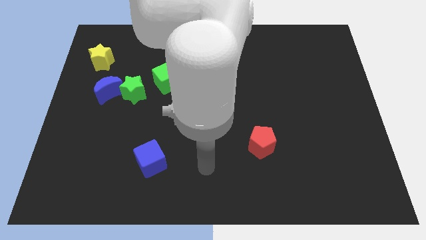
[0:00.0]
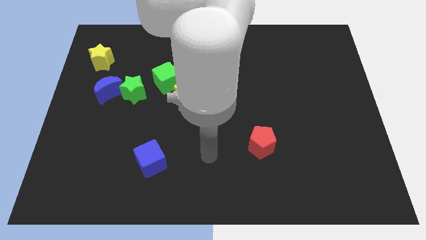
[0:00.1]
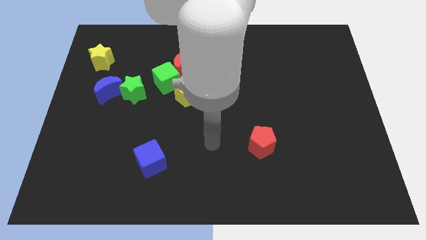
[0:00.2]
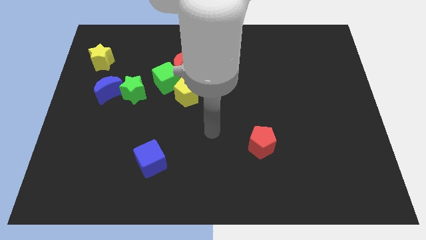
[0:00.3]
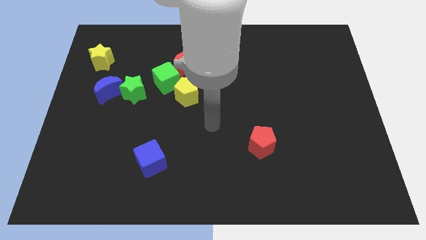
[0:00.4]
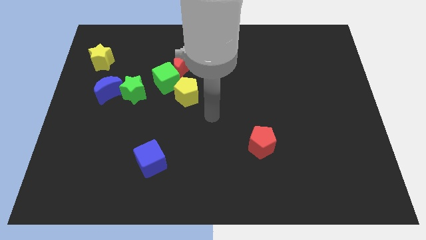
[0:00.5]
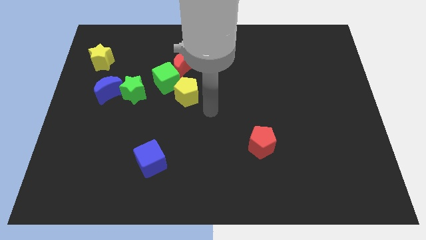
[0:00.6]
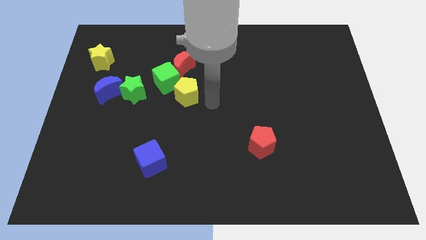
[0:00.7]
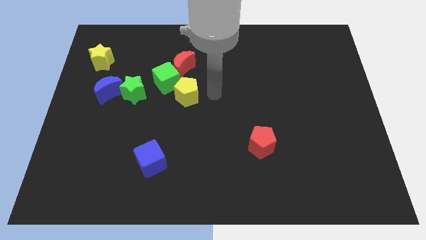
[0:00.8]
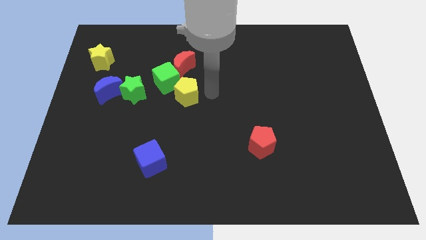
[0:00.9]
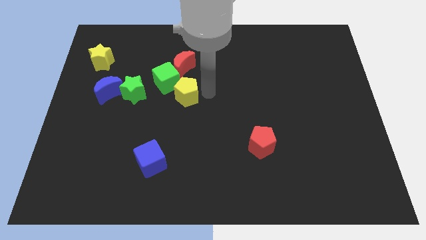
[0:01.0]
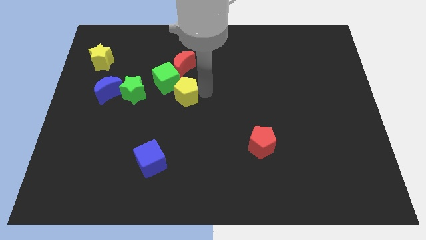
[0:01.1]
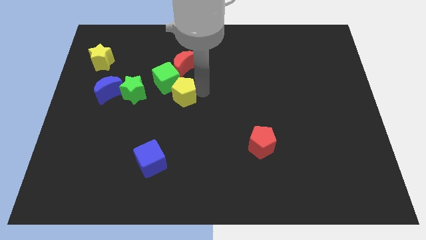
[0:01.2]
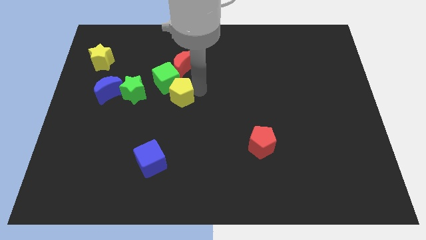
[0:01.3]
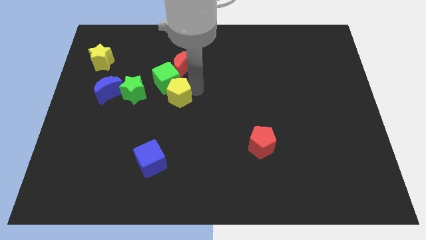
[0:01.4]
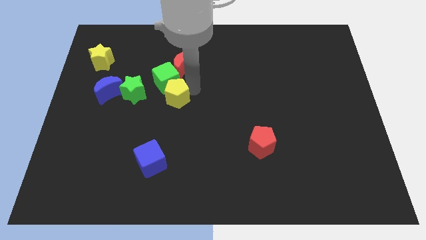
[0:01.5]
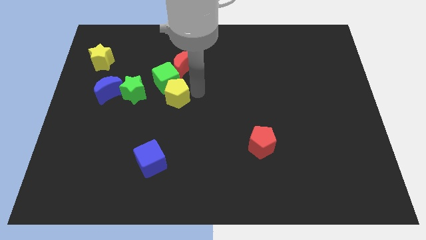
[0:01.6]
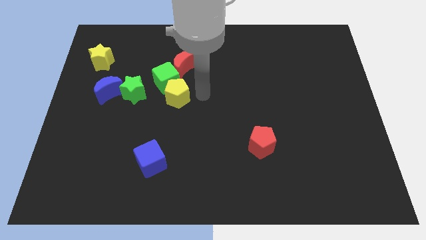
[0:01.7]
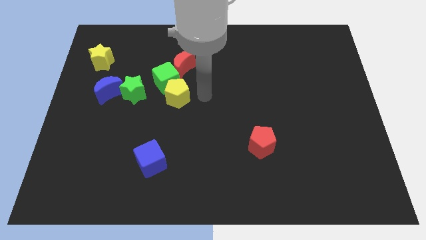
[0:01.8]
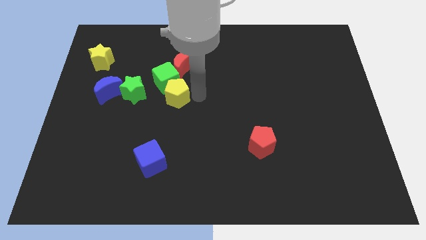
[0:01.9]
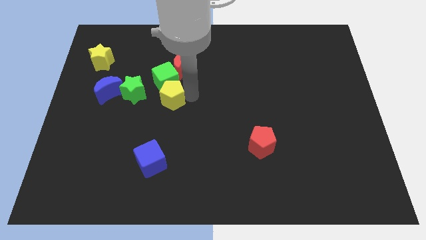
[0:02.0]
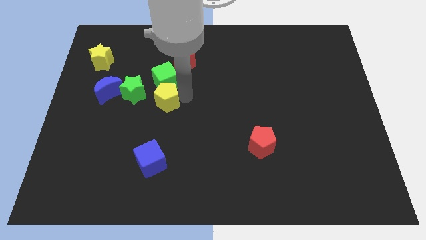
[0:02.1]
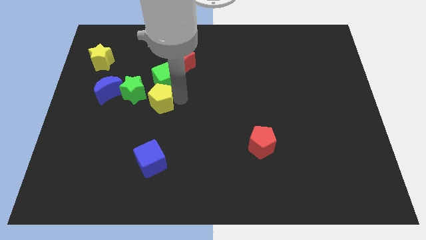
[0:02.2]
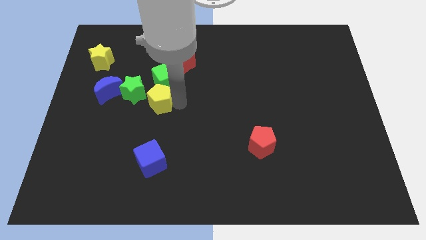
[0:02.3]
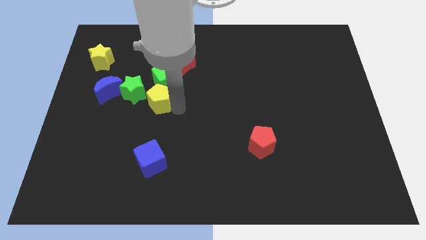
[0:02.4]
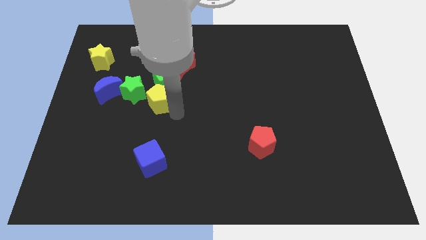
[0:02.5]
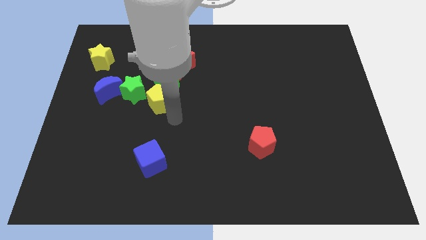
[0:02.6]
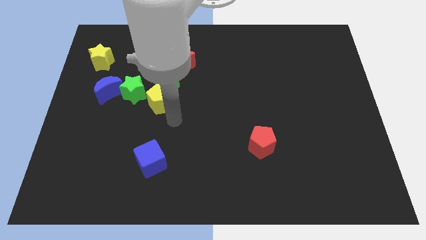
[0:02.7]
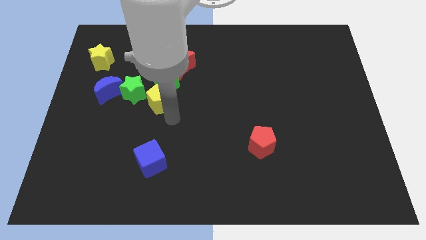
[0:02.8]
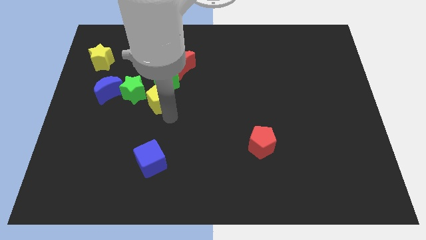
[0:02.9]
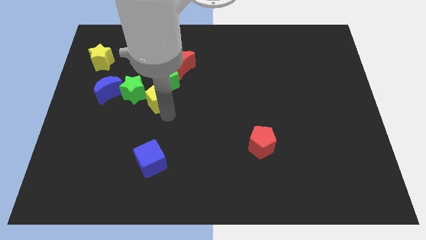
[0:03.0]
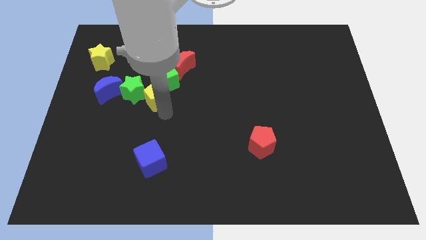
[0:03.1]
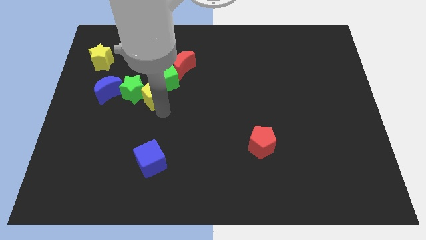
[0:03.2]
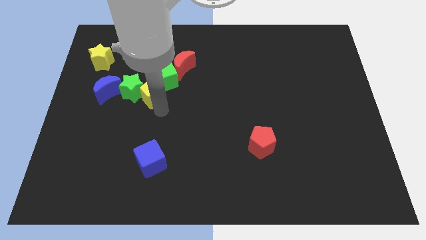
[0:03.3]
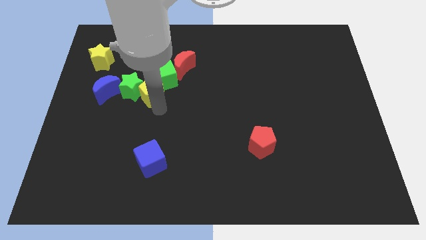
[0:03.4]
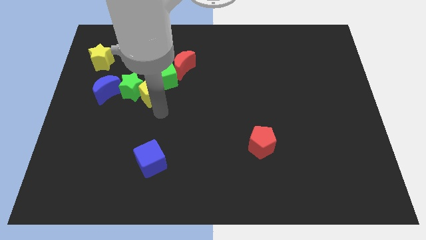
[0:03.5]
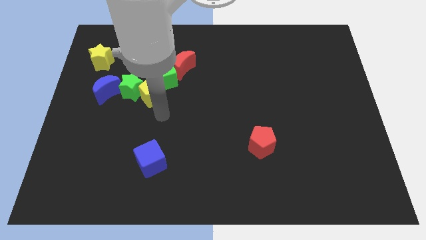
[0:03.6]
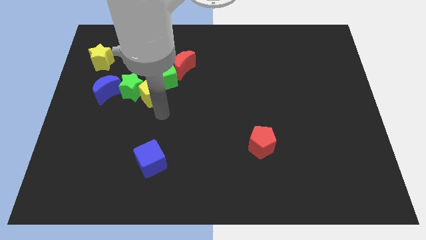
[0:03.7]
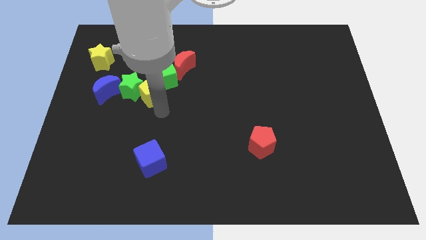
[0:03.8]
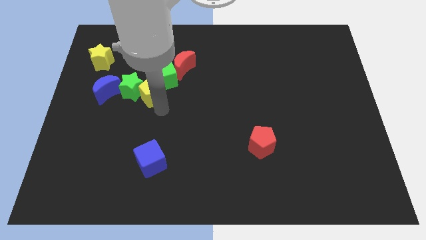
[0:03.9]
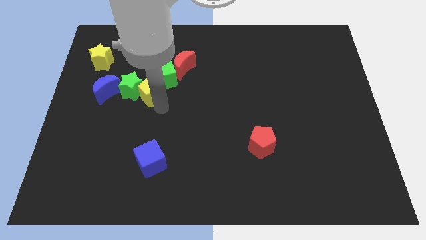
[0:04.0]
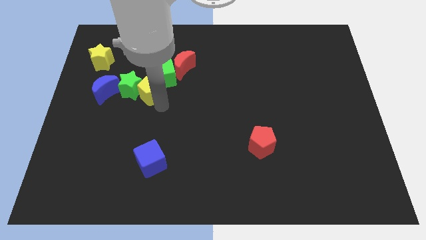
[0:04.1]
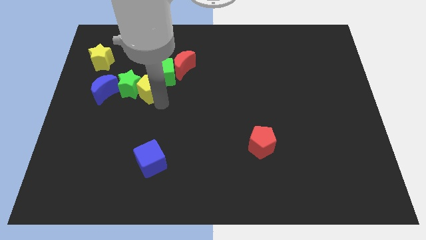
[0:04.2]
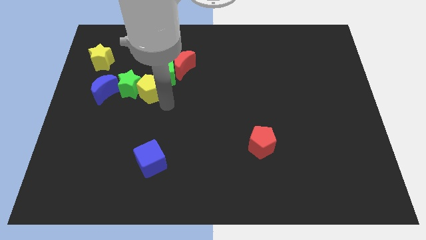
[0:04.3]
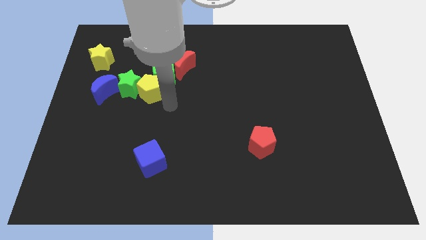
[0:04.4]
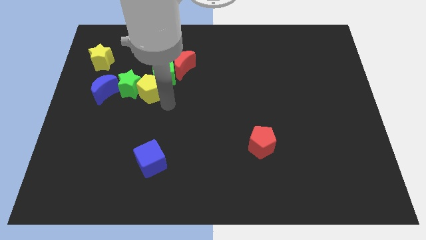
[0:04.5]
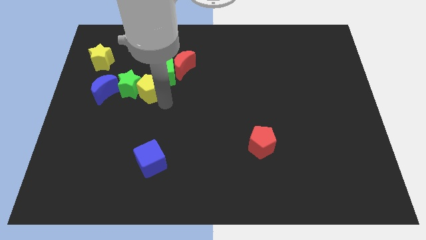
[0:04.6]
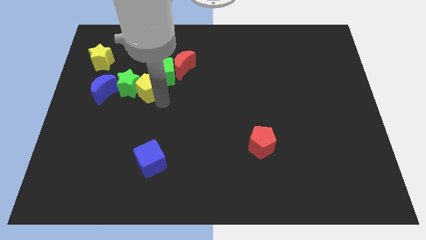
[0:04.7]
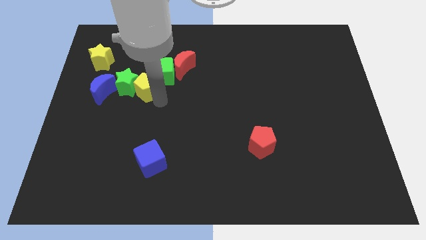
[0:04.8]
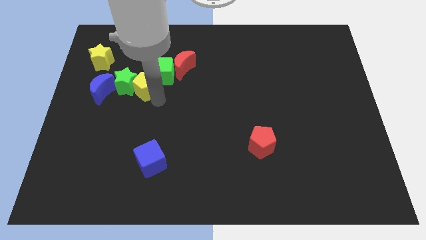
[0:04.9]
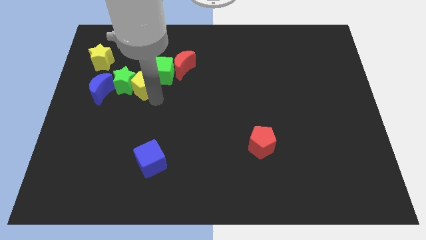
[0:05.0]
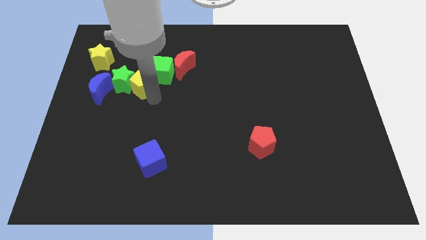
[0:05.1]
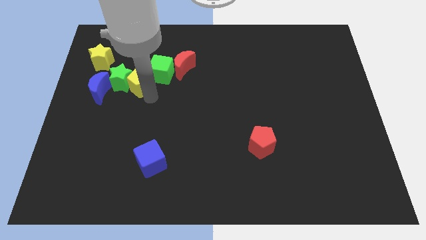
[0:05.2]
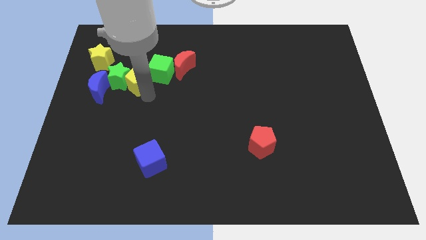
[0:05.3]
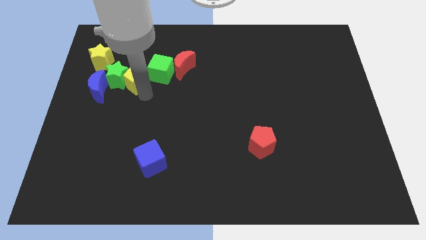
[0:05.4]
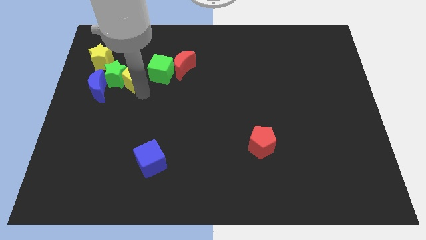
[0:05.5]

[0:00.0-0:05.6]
push the yellow pentagon to the bottom right of the yellow star

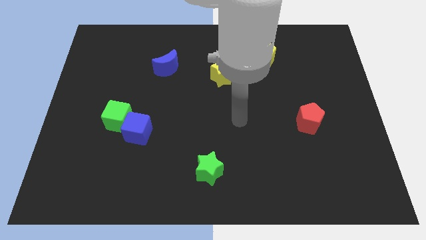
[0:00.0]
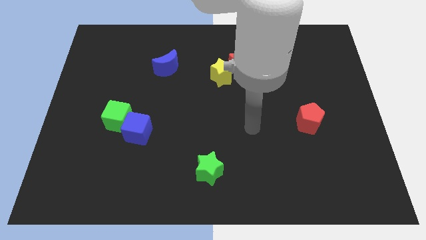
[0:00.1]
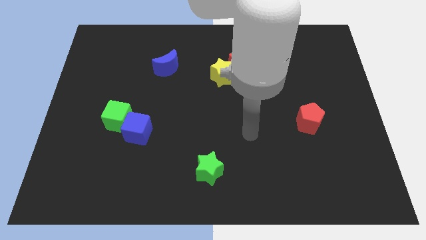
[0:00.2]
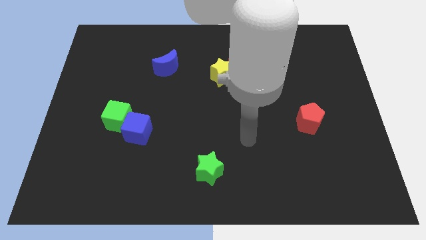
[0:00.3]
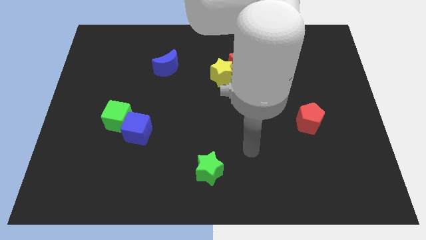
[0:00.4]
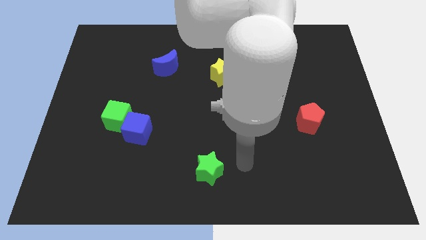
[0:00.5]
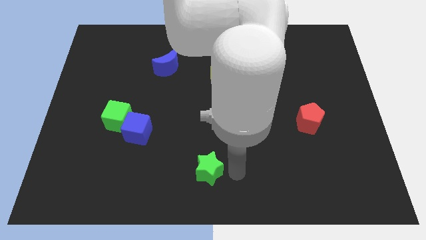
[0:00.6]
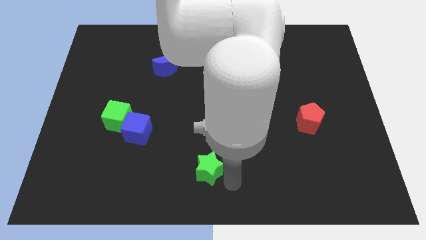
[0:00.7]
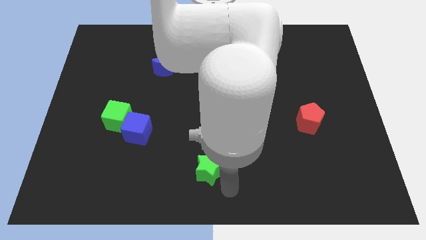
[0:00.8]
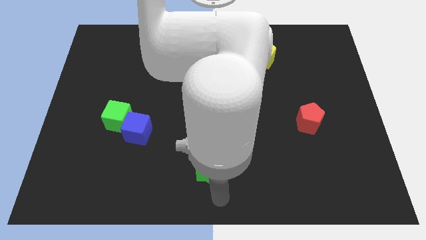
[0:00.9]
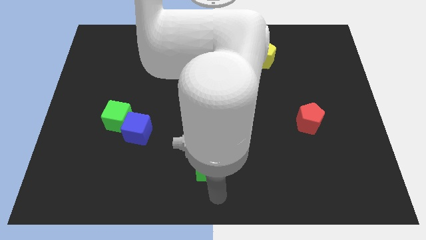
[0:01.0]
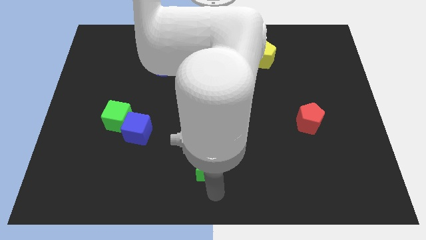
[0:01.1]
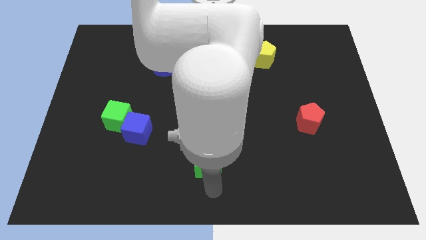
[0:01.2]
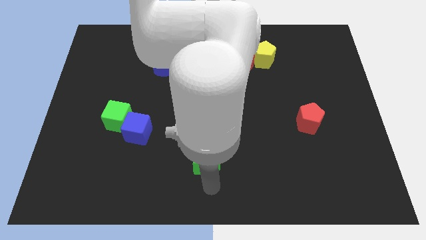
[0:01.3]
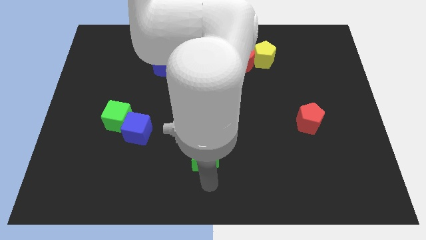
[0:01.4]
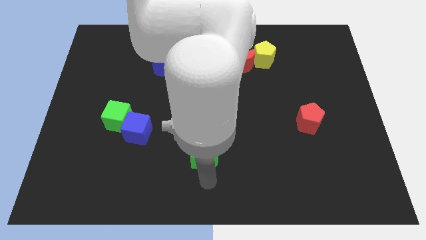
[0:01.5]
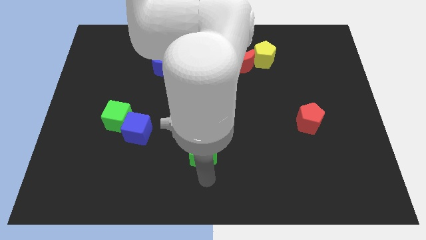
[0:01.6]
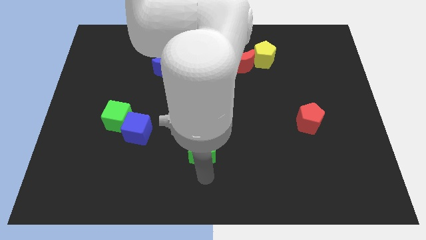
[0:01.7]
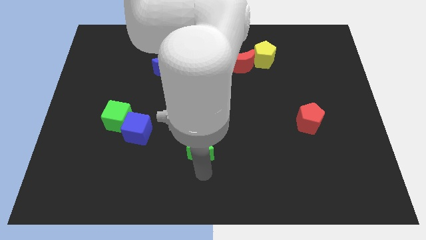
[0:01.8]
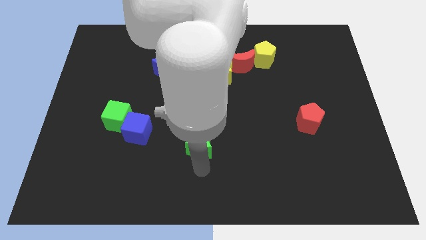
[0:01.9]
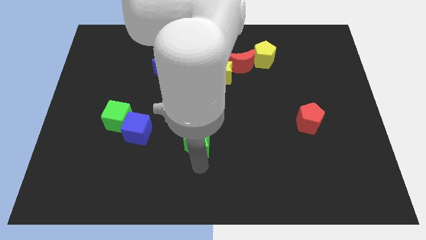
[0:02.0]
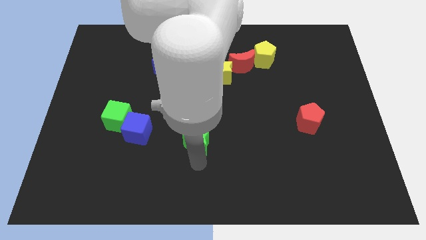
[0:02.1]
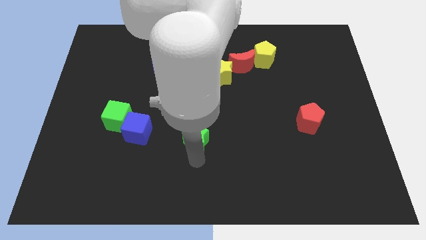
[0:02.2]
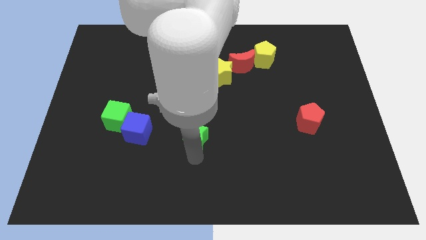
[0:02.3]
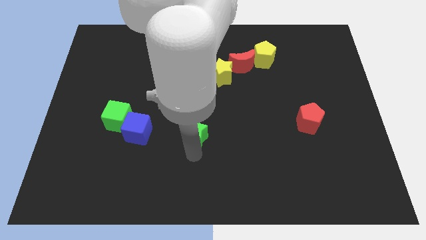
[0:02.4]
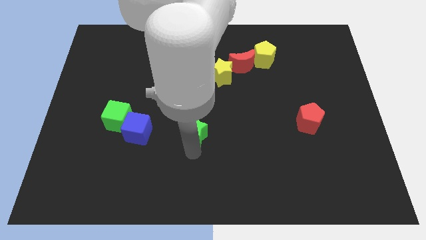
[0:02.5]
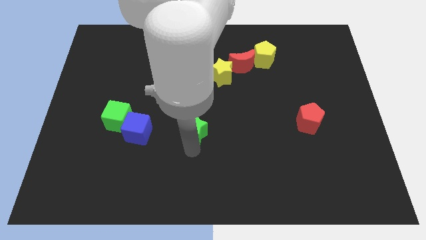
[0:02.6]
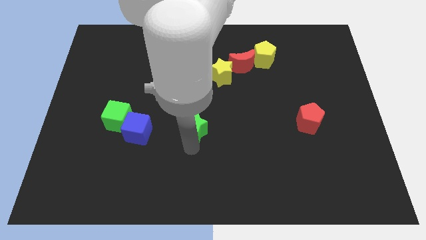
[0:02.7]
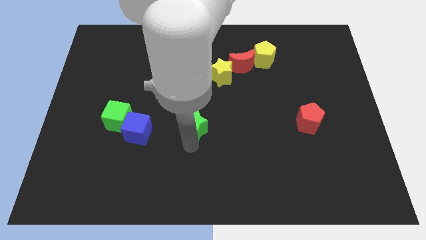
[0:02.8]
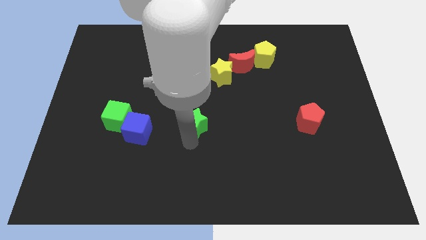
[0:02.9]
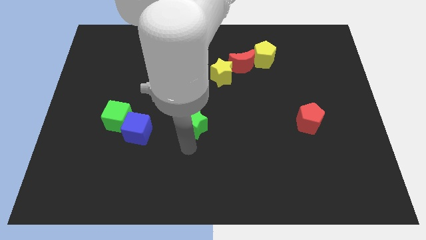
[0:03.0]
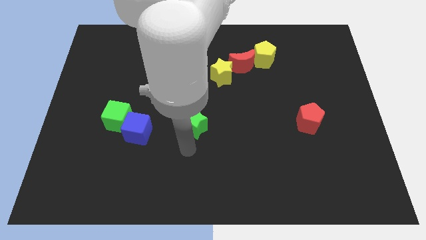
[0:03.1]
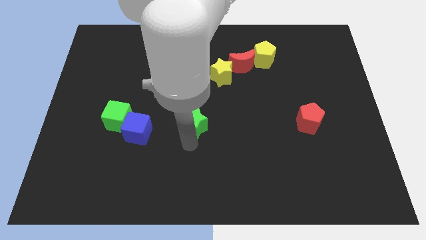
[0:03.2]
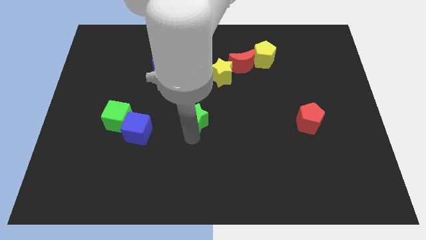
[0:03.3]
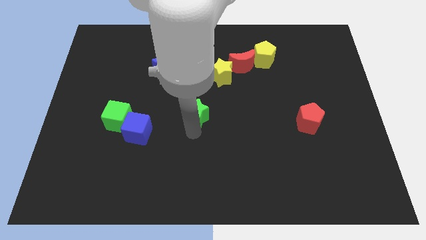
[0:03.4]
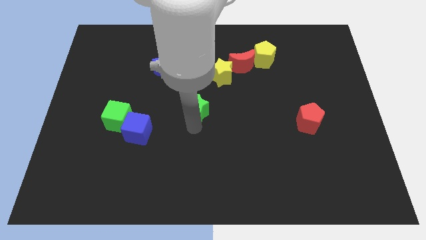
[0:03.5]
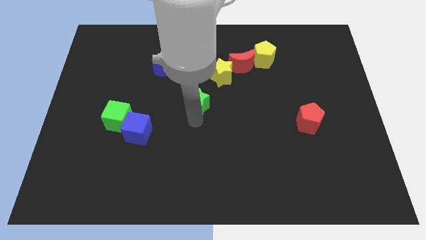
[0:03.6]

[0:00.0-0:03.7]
slide the green star to the bottom left of the yellow star
